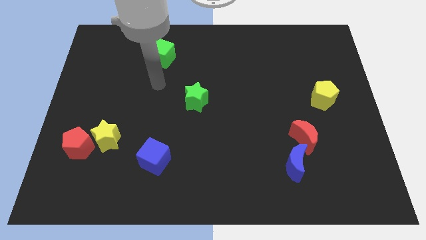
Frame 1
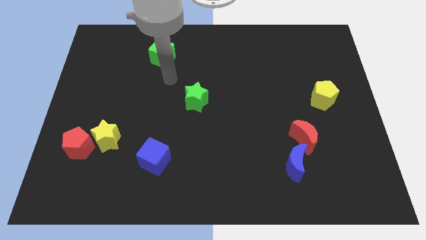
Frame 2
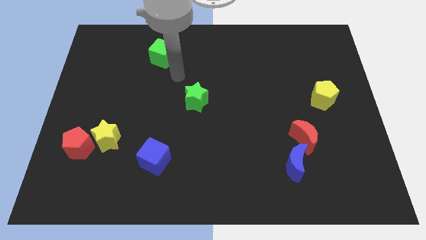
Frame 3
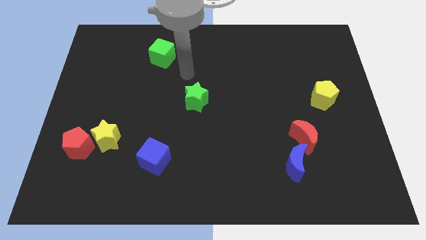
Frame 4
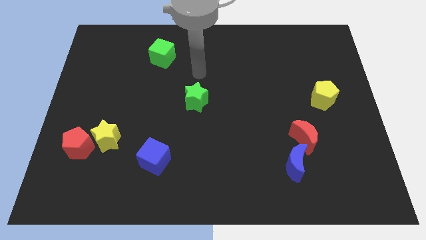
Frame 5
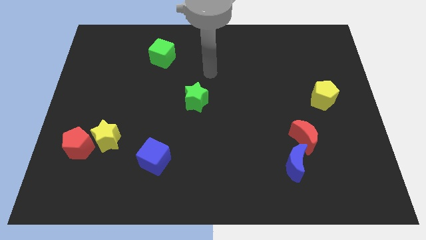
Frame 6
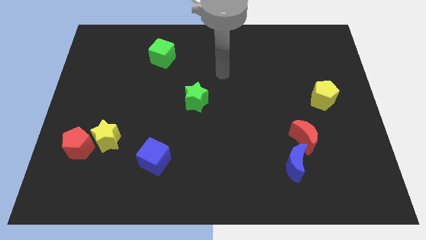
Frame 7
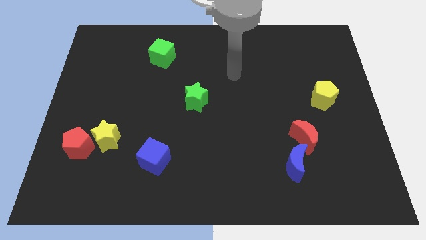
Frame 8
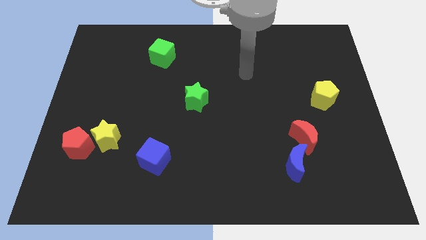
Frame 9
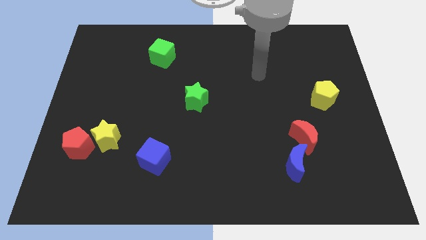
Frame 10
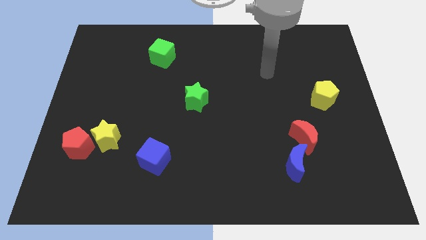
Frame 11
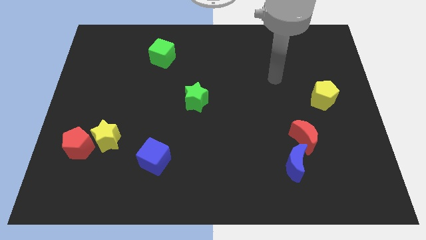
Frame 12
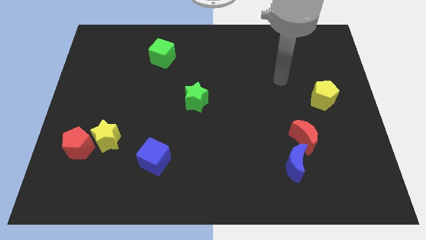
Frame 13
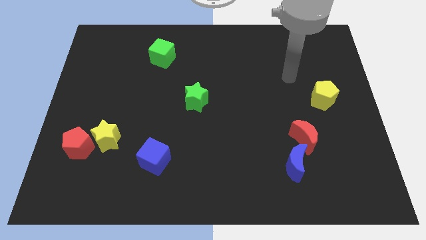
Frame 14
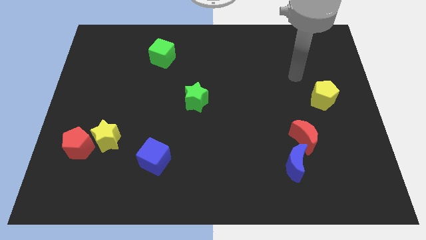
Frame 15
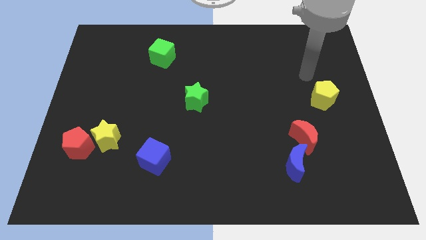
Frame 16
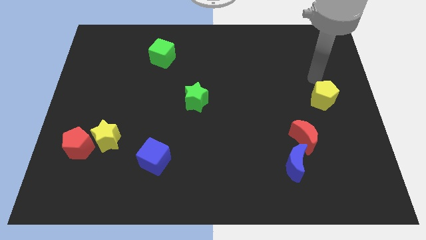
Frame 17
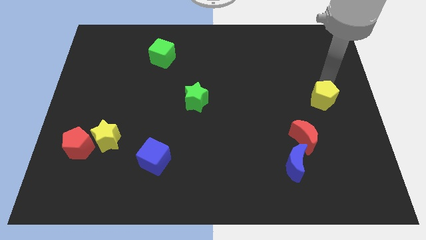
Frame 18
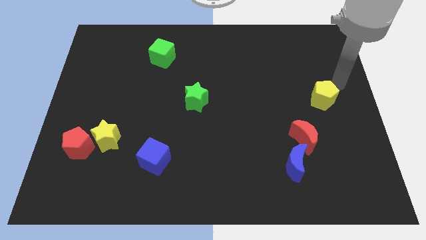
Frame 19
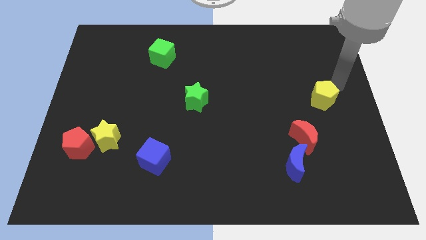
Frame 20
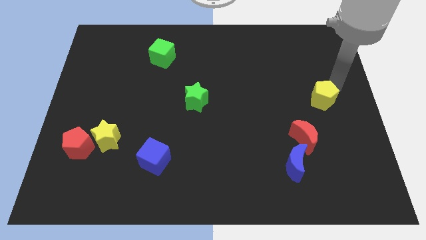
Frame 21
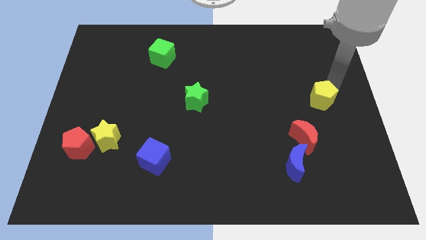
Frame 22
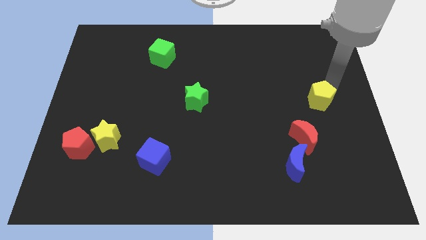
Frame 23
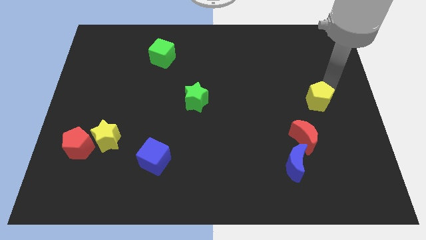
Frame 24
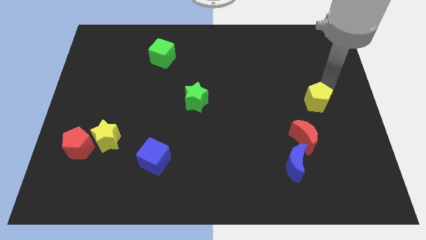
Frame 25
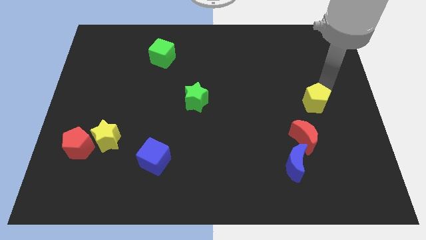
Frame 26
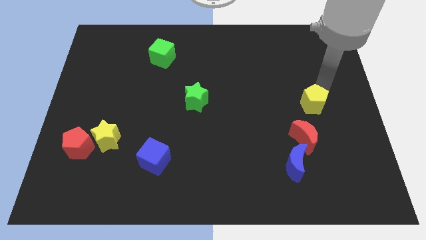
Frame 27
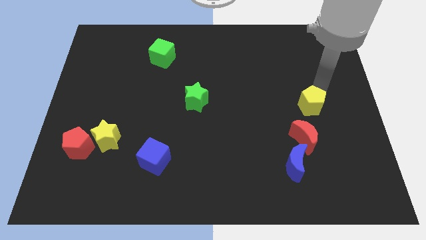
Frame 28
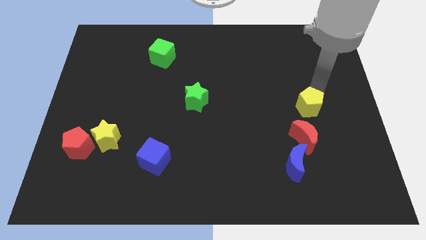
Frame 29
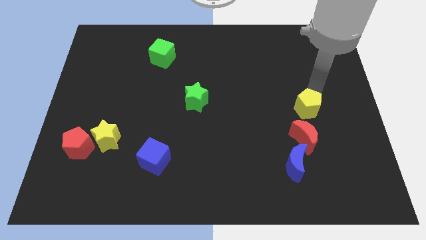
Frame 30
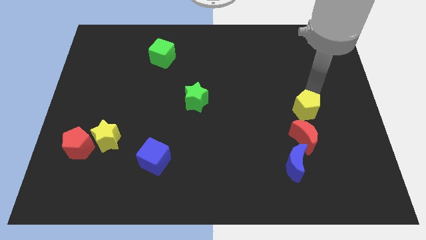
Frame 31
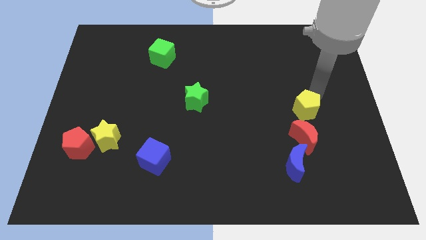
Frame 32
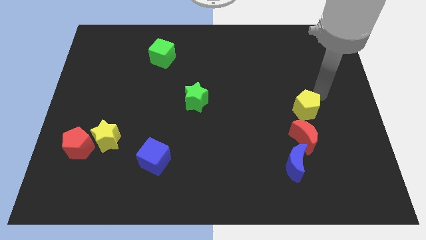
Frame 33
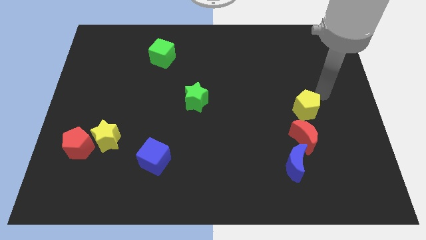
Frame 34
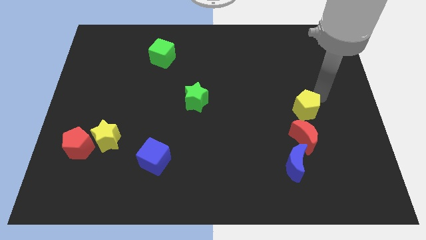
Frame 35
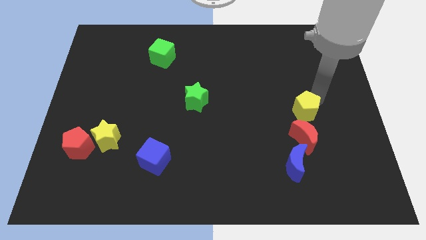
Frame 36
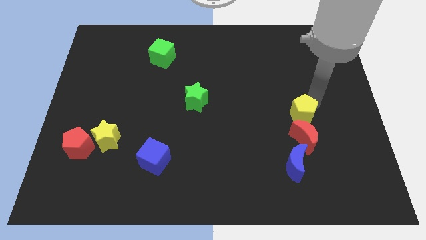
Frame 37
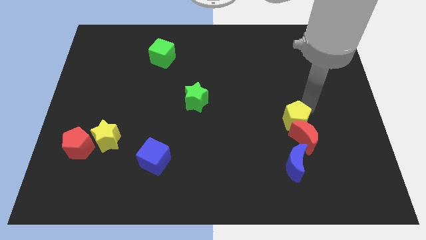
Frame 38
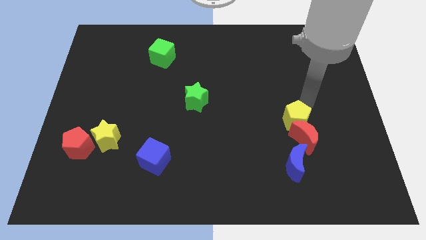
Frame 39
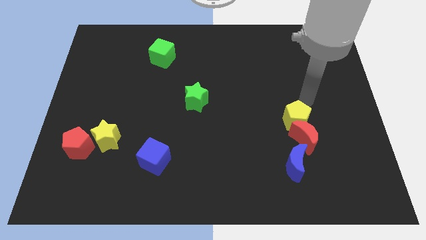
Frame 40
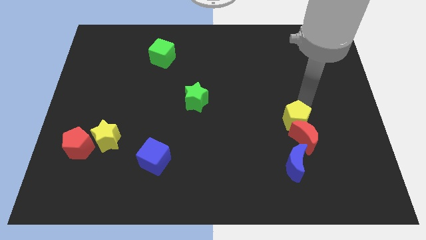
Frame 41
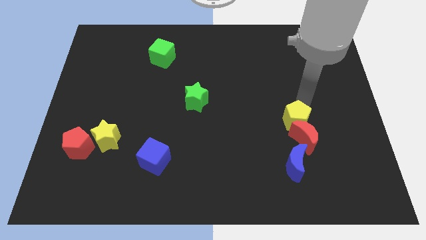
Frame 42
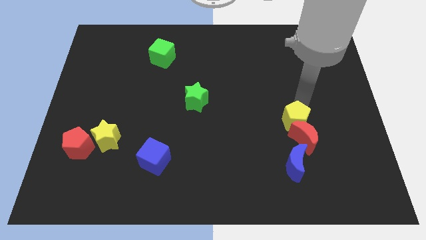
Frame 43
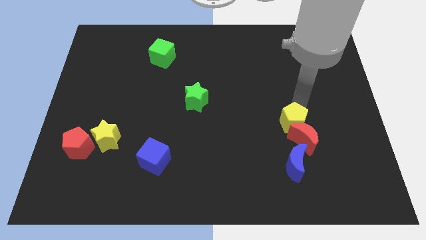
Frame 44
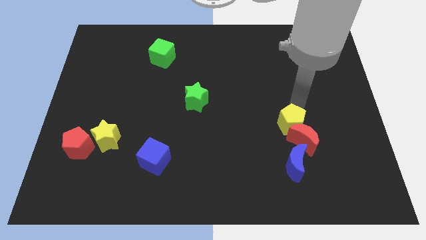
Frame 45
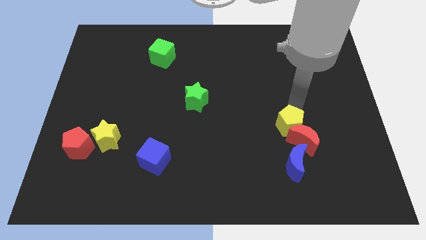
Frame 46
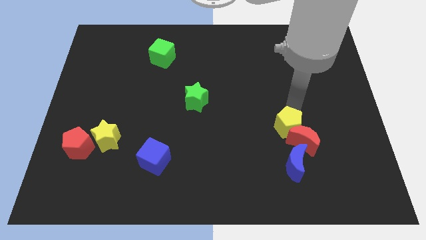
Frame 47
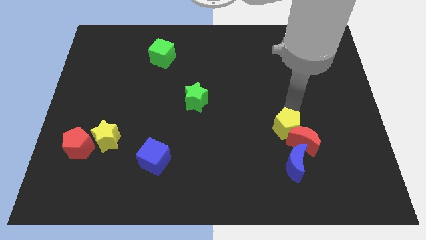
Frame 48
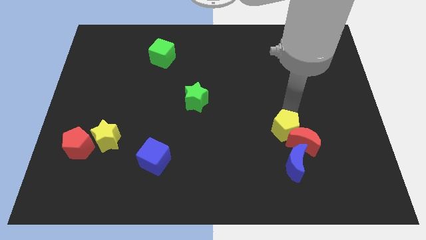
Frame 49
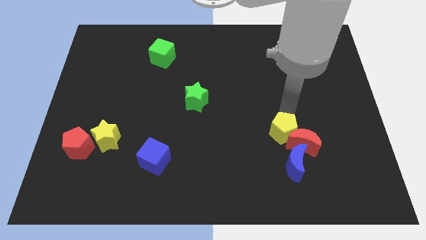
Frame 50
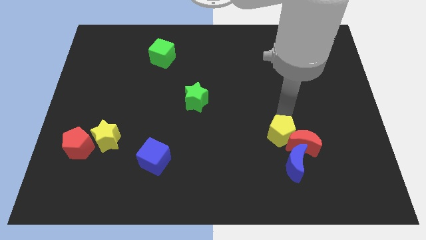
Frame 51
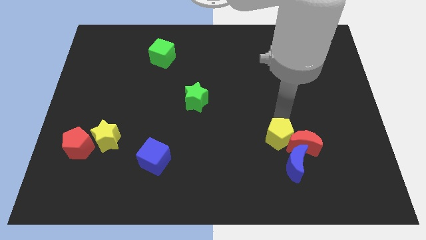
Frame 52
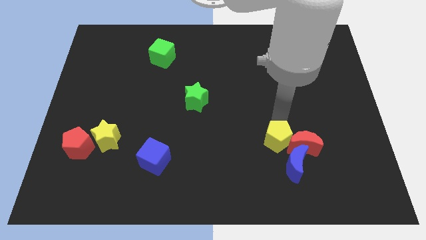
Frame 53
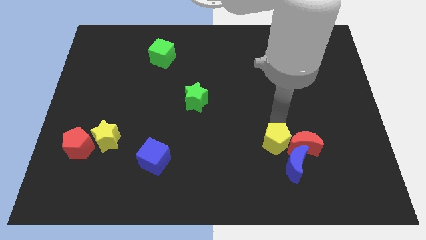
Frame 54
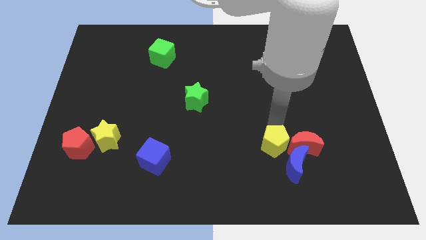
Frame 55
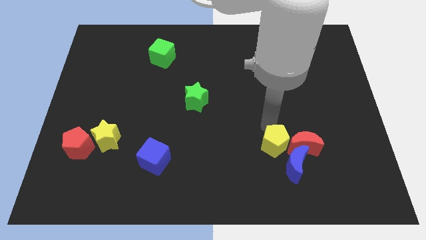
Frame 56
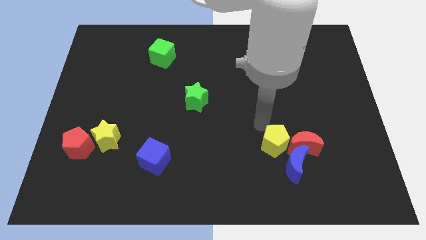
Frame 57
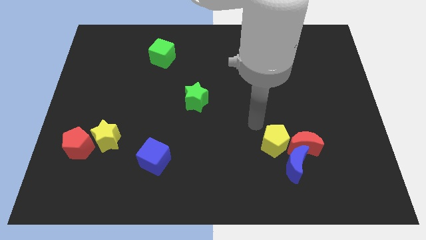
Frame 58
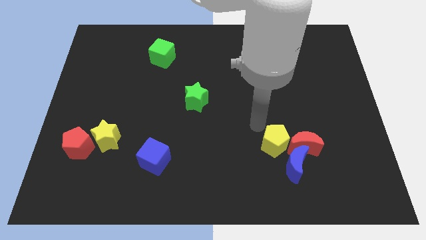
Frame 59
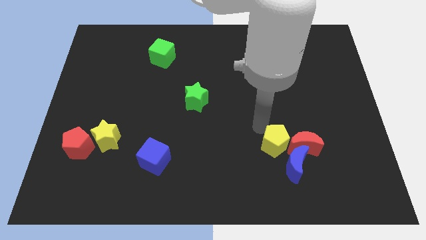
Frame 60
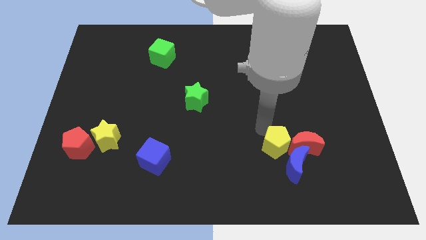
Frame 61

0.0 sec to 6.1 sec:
put the yellow pentagon to the blue moon

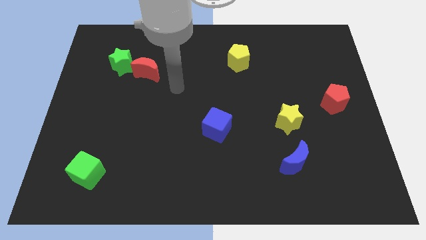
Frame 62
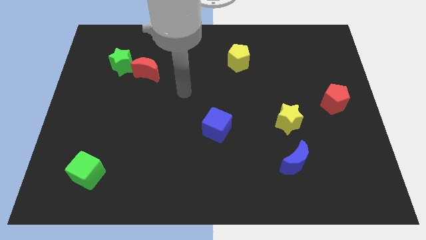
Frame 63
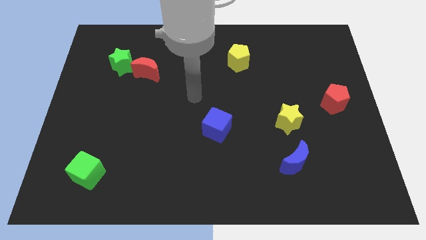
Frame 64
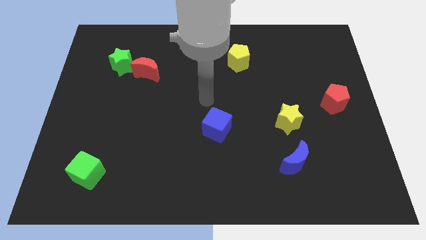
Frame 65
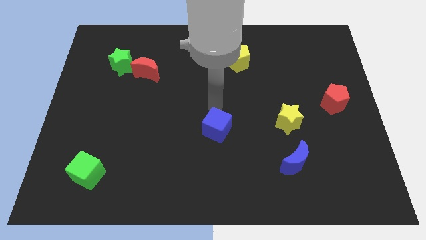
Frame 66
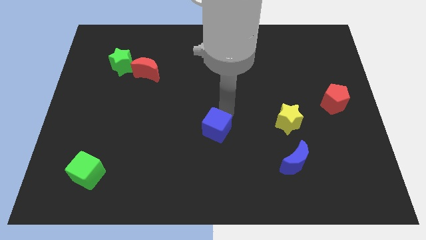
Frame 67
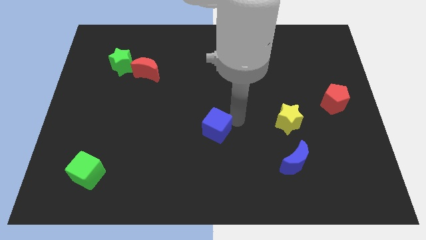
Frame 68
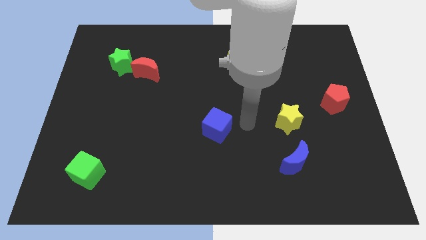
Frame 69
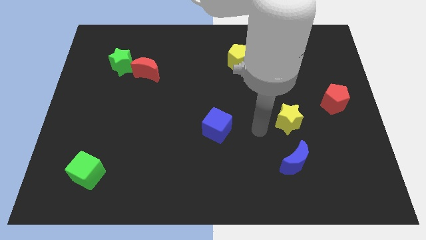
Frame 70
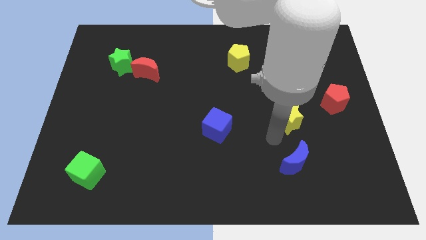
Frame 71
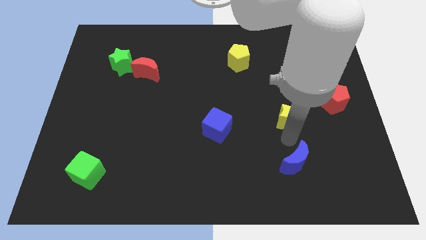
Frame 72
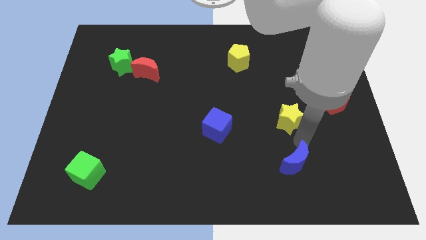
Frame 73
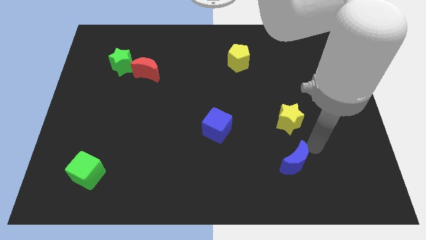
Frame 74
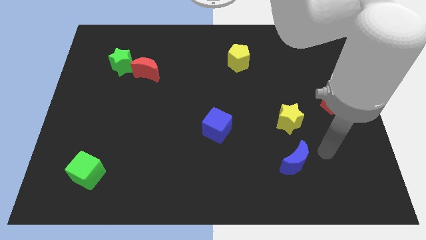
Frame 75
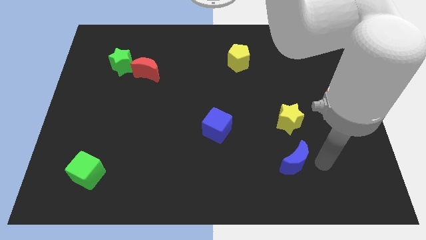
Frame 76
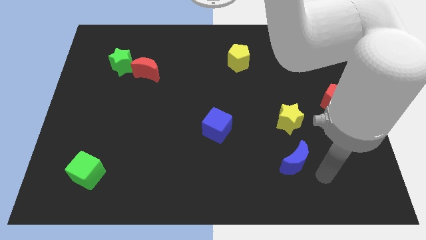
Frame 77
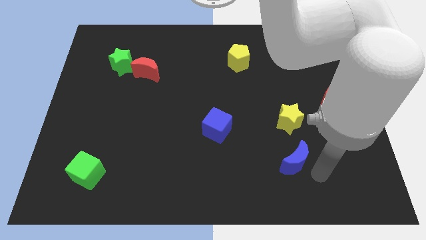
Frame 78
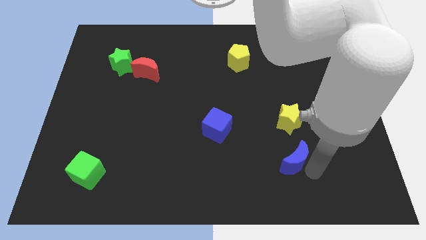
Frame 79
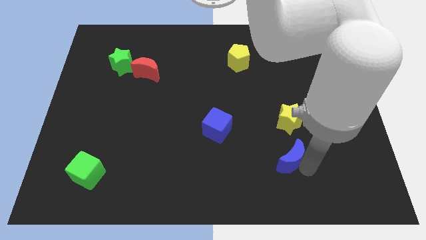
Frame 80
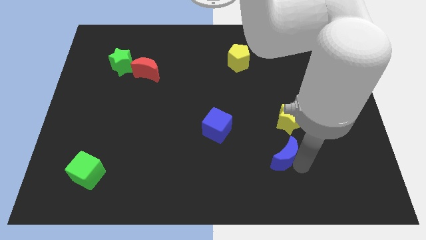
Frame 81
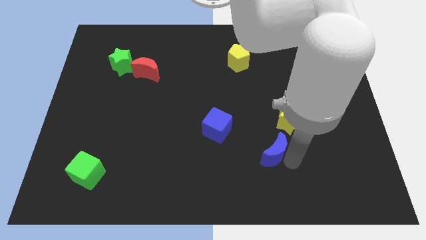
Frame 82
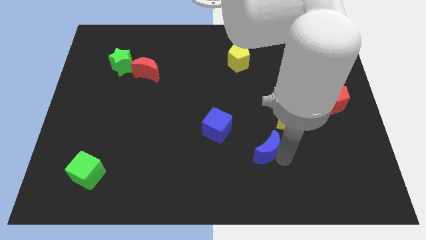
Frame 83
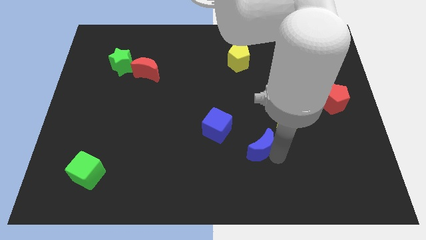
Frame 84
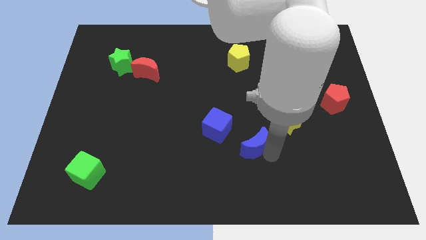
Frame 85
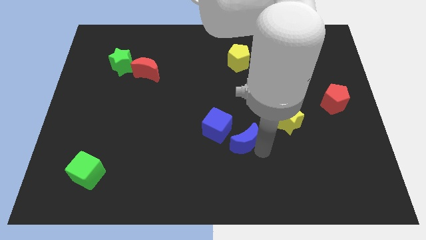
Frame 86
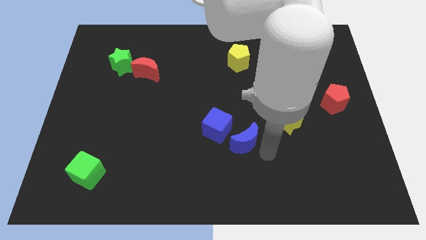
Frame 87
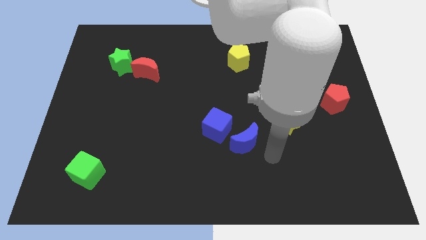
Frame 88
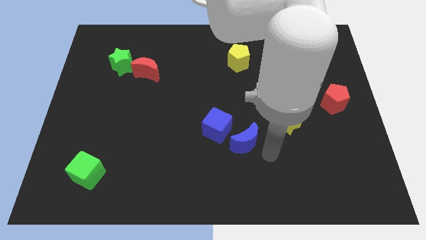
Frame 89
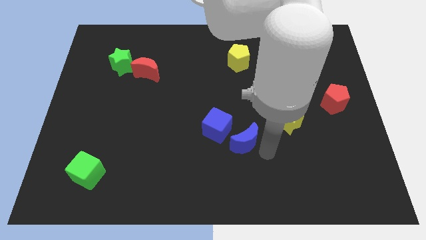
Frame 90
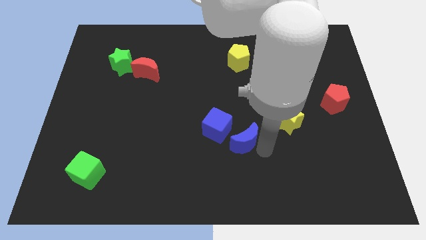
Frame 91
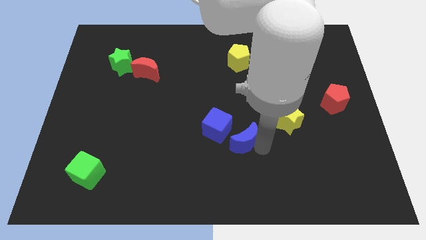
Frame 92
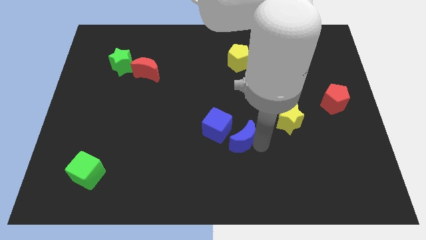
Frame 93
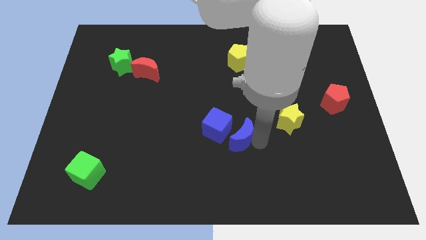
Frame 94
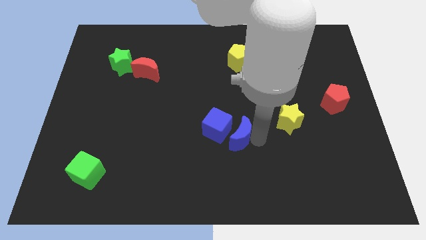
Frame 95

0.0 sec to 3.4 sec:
slide the blue moon to the blue cube
